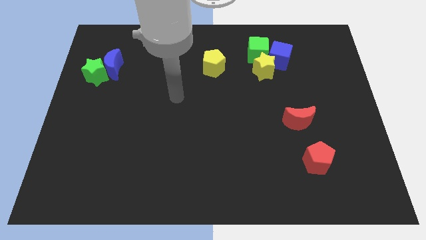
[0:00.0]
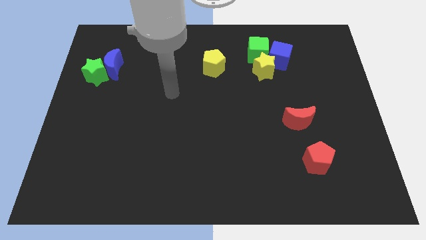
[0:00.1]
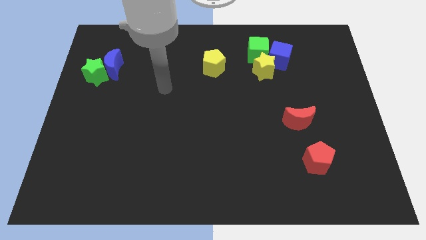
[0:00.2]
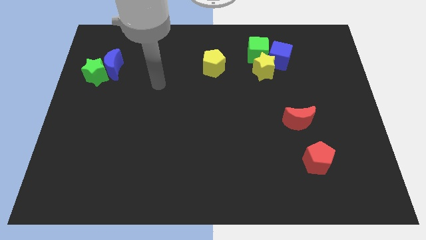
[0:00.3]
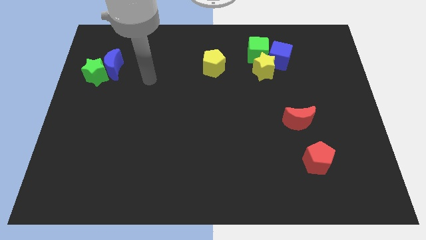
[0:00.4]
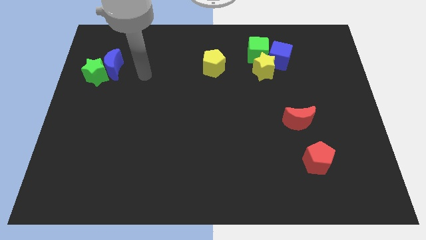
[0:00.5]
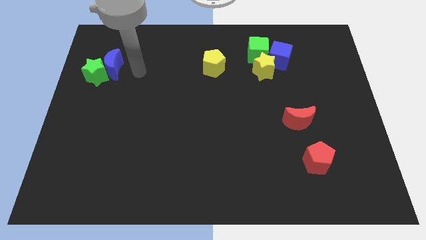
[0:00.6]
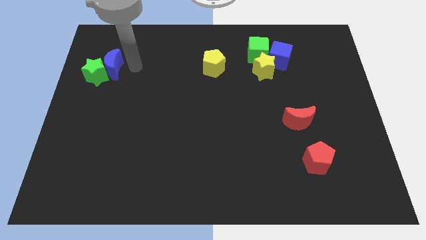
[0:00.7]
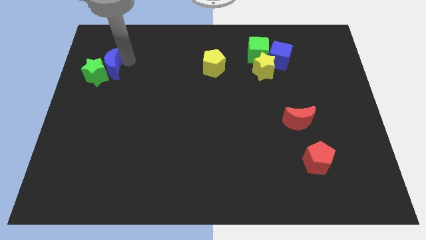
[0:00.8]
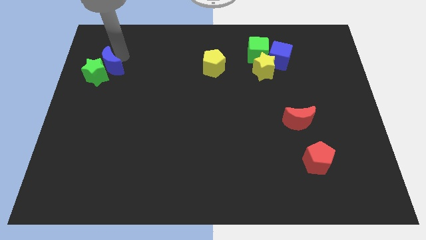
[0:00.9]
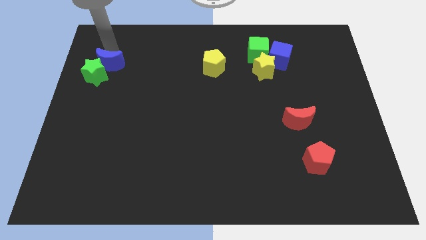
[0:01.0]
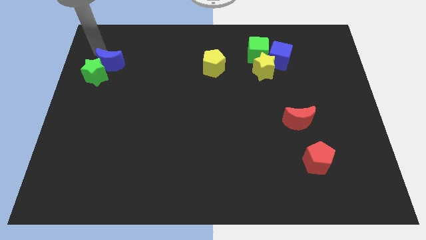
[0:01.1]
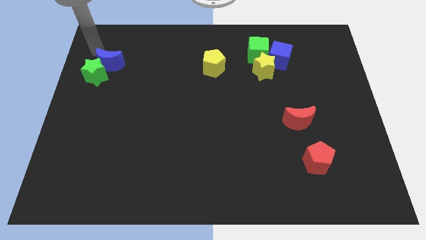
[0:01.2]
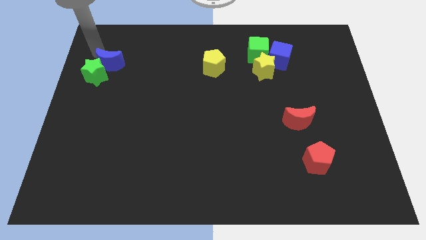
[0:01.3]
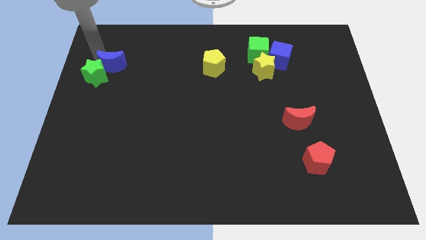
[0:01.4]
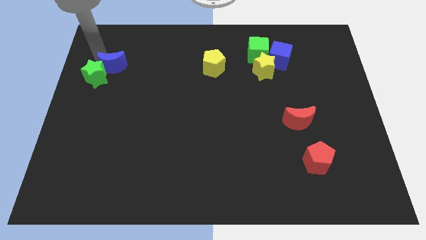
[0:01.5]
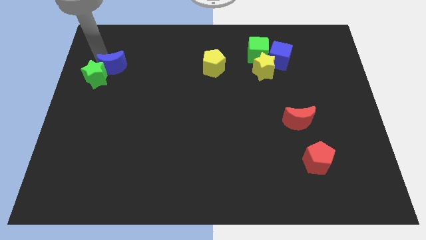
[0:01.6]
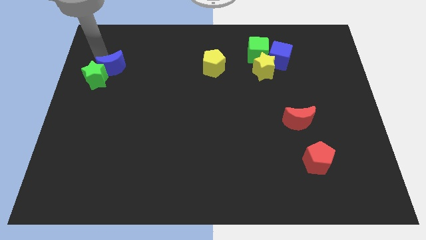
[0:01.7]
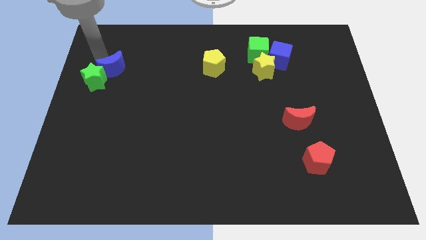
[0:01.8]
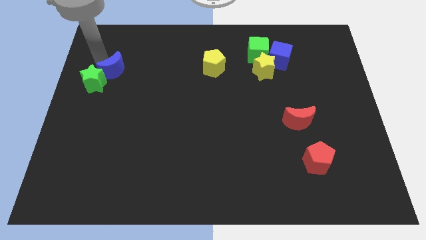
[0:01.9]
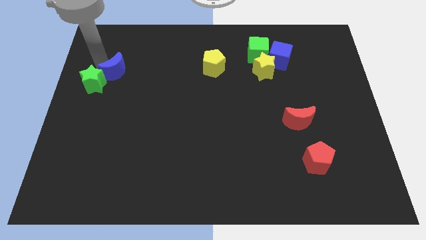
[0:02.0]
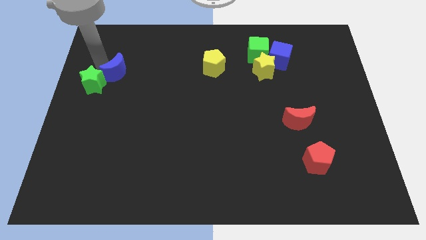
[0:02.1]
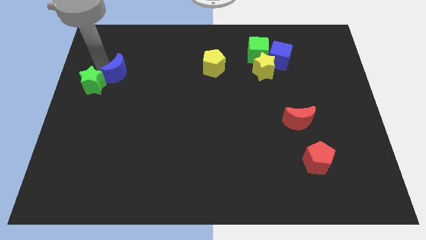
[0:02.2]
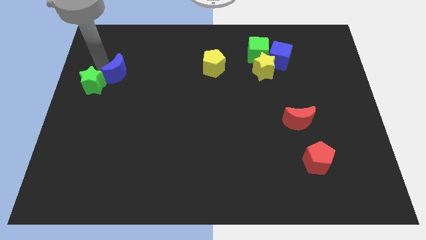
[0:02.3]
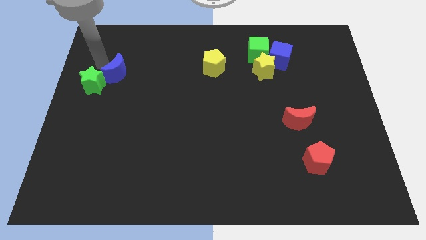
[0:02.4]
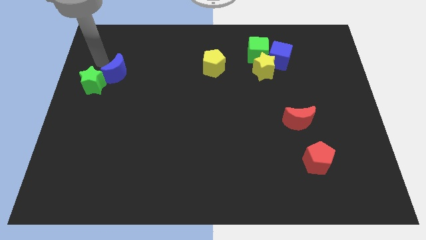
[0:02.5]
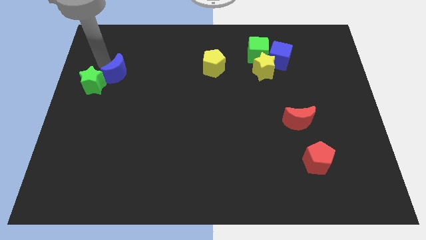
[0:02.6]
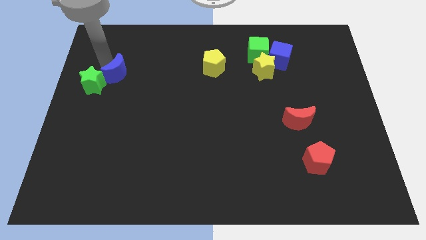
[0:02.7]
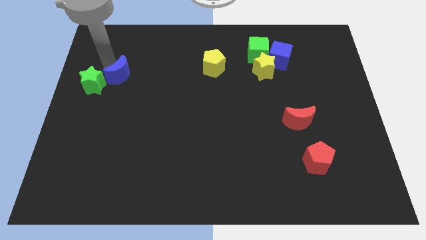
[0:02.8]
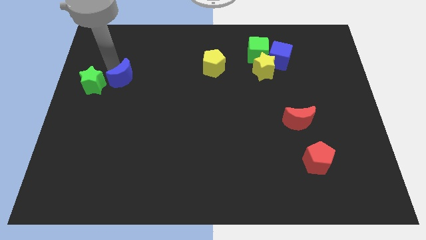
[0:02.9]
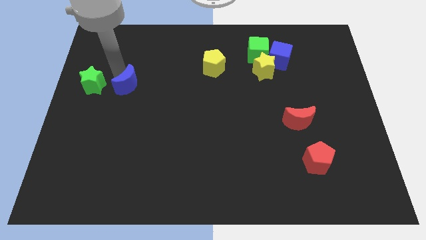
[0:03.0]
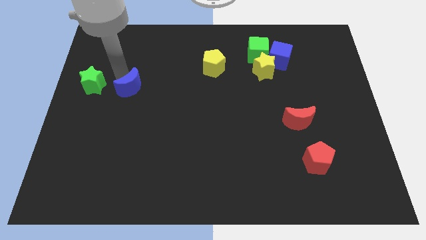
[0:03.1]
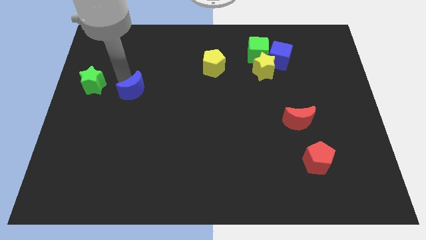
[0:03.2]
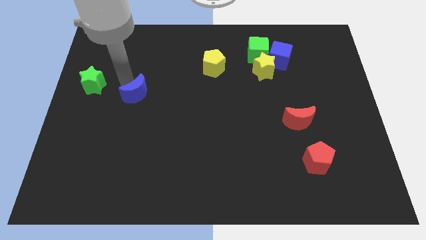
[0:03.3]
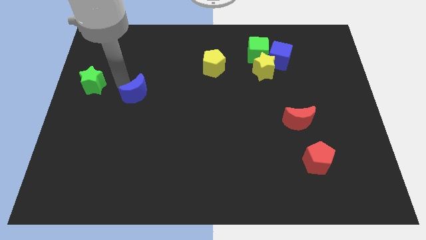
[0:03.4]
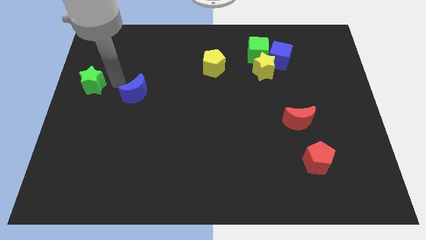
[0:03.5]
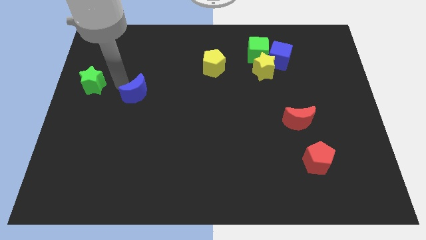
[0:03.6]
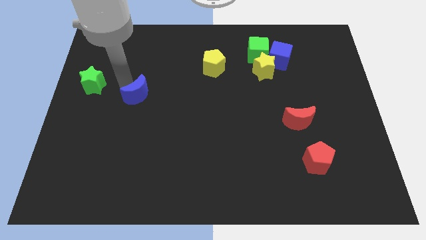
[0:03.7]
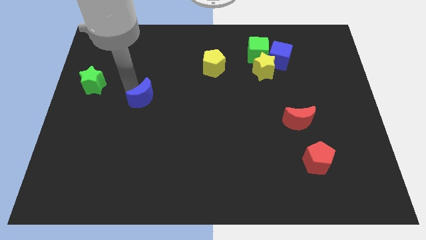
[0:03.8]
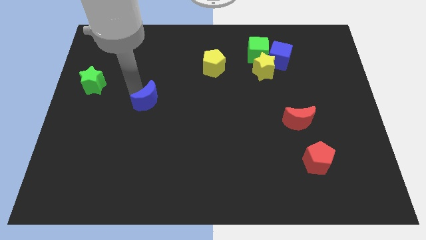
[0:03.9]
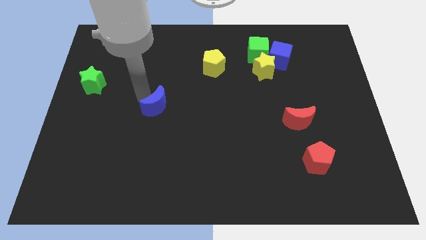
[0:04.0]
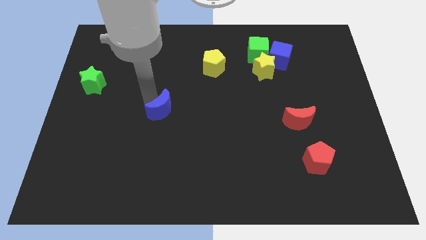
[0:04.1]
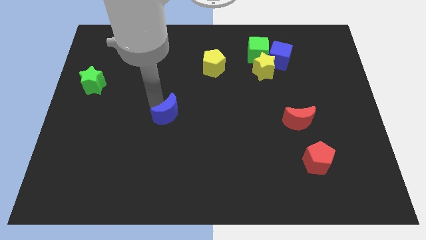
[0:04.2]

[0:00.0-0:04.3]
move the blue moon diagonally down and to the right

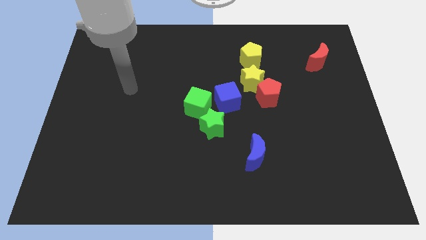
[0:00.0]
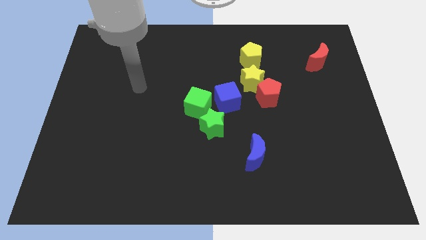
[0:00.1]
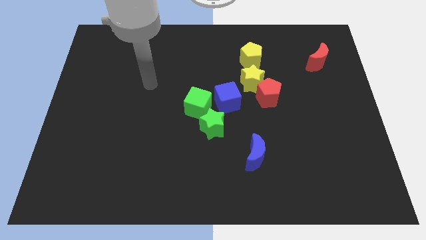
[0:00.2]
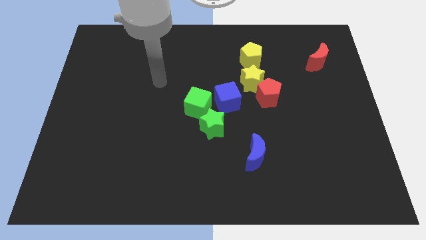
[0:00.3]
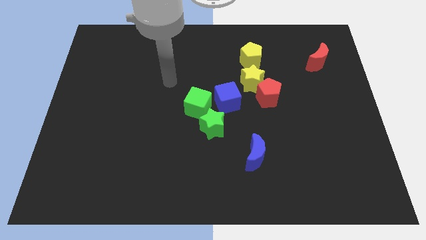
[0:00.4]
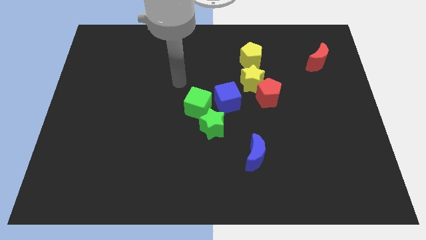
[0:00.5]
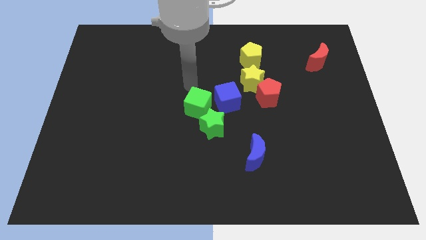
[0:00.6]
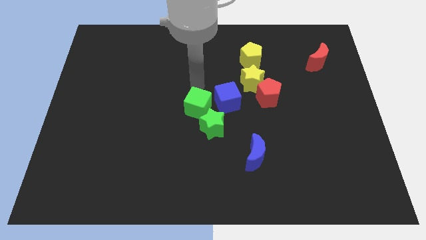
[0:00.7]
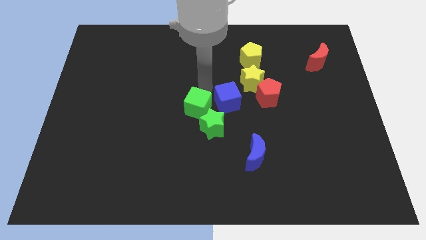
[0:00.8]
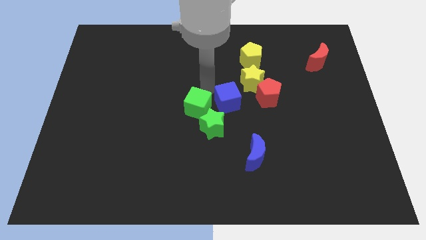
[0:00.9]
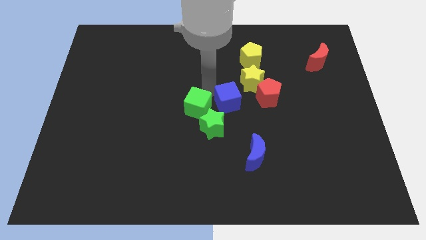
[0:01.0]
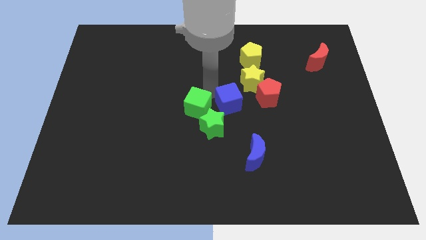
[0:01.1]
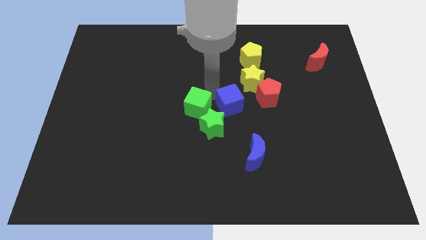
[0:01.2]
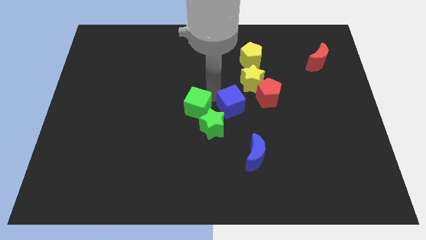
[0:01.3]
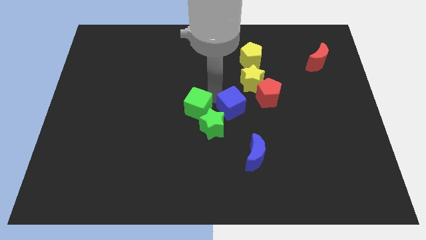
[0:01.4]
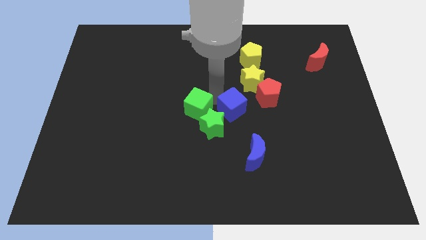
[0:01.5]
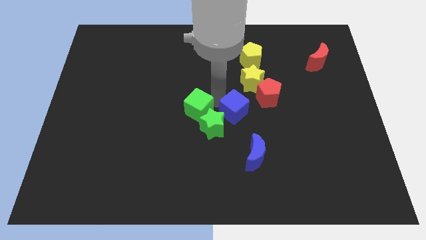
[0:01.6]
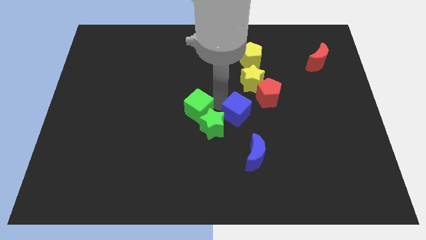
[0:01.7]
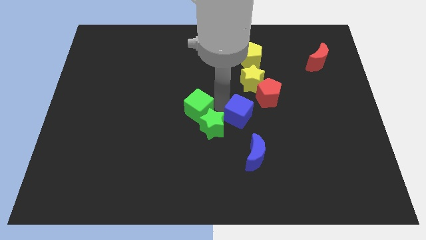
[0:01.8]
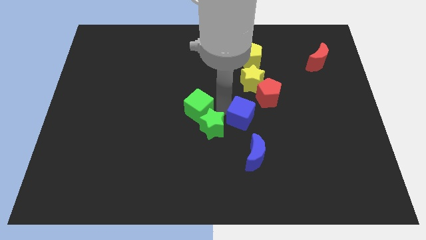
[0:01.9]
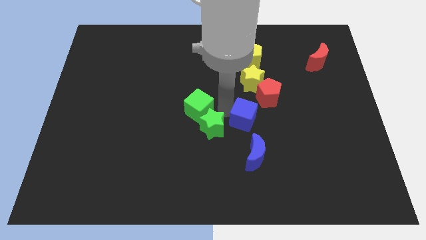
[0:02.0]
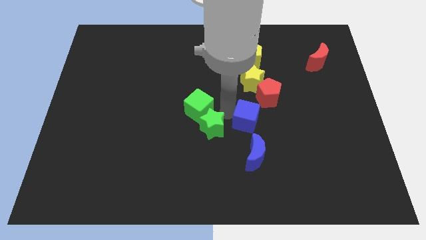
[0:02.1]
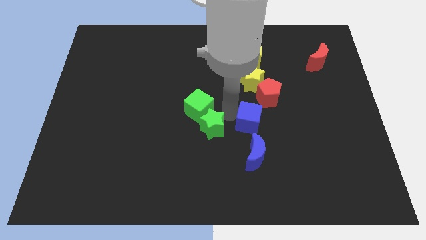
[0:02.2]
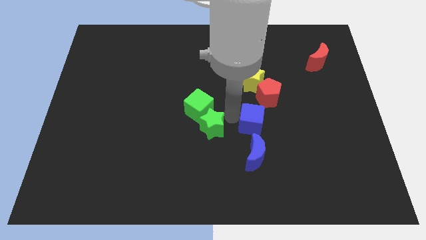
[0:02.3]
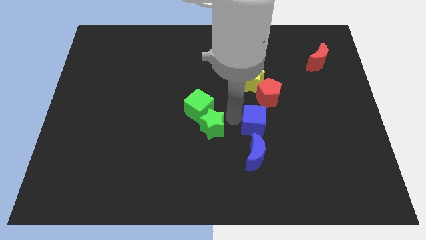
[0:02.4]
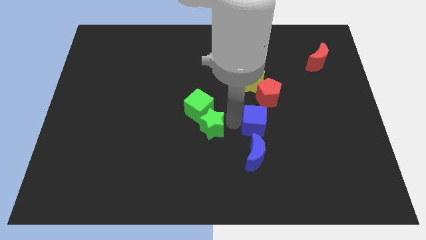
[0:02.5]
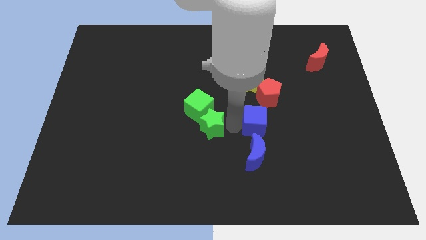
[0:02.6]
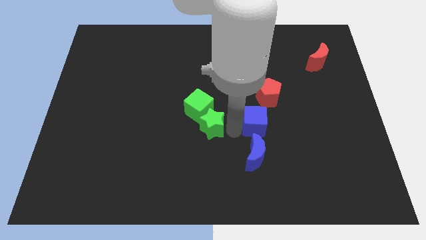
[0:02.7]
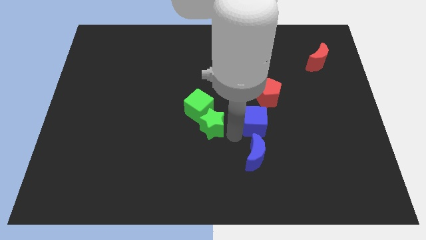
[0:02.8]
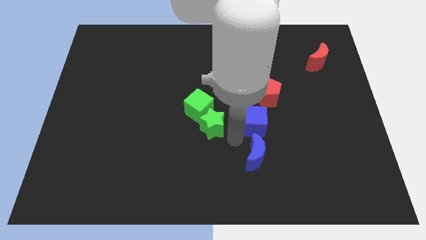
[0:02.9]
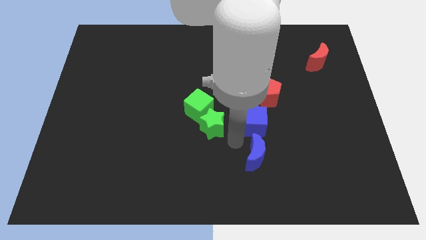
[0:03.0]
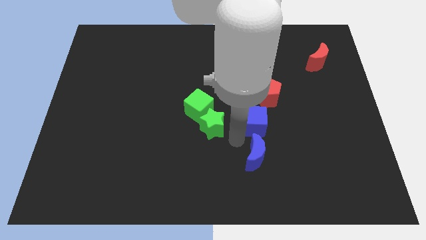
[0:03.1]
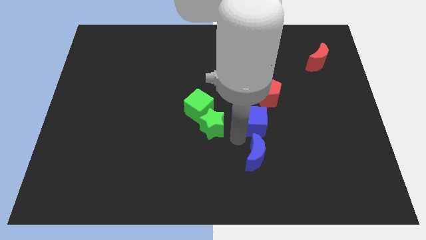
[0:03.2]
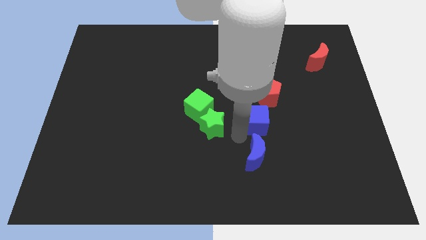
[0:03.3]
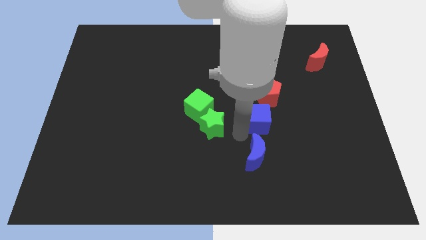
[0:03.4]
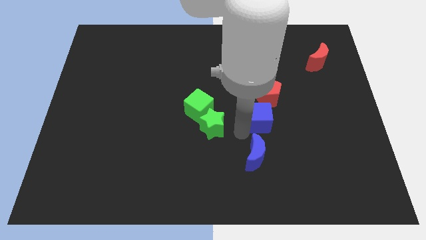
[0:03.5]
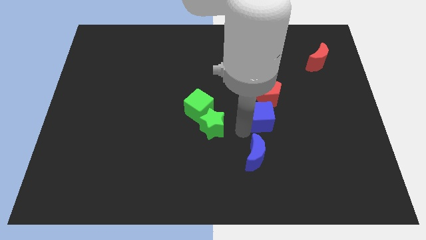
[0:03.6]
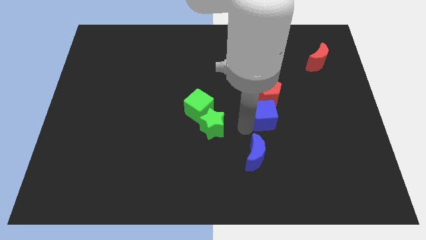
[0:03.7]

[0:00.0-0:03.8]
slightly slide the blue cube to the right
